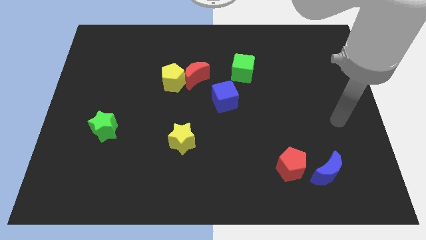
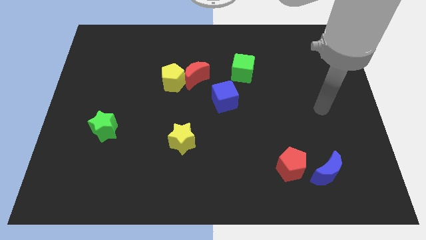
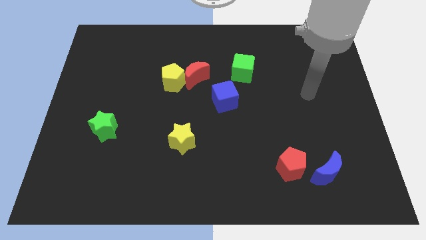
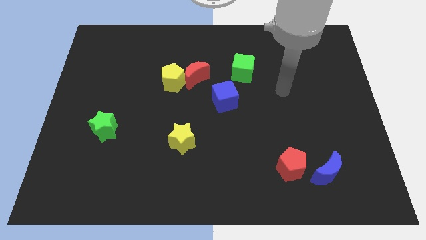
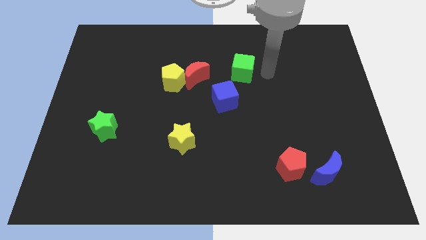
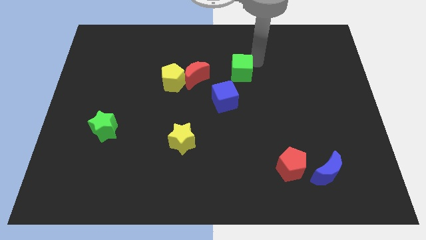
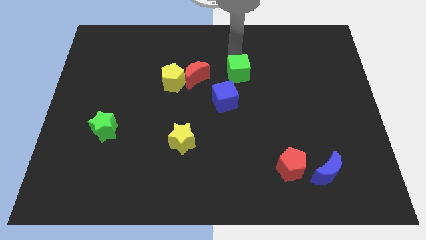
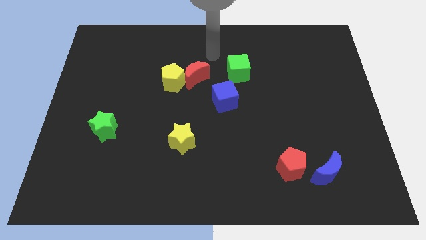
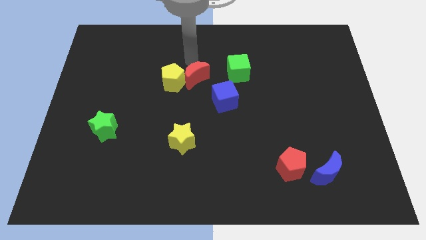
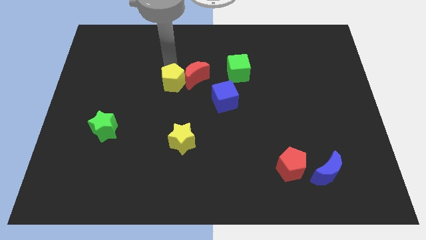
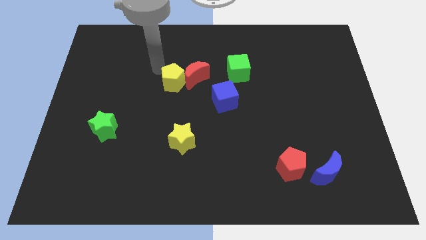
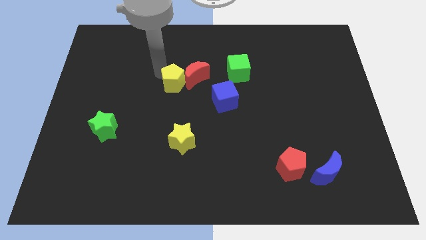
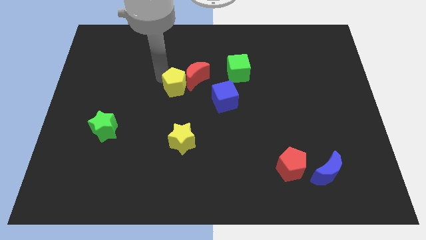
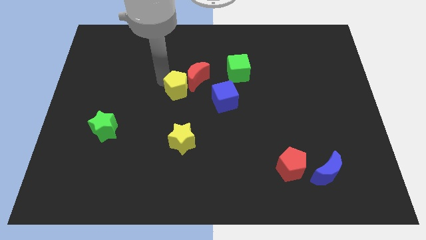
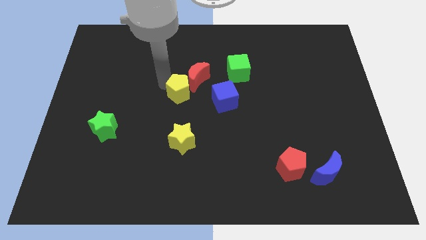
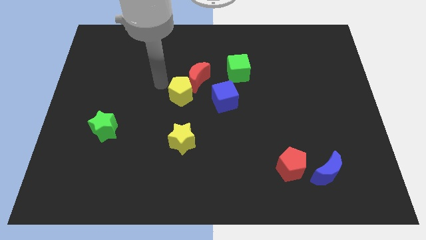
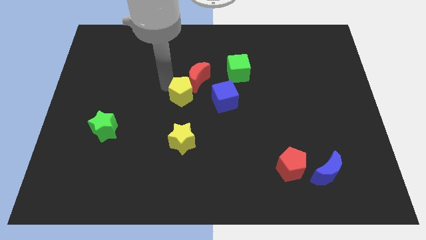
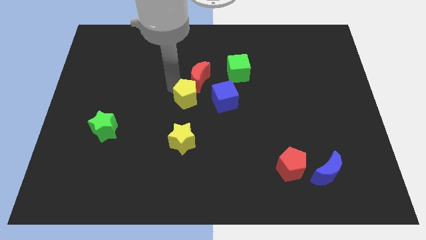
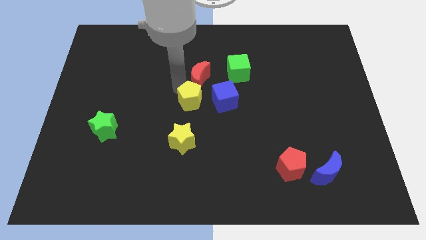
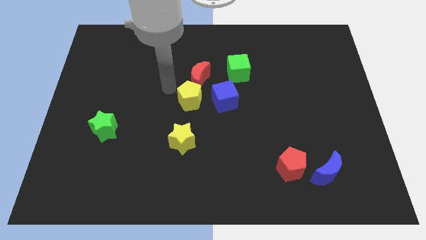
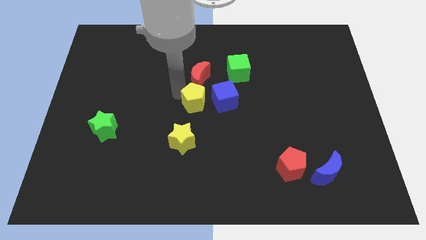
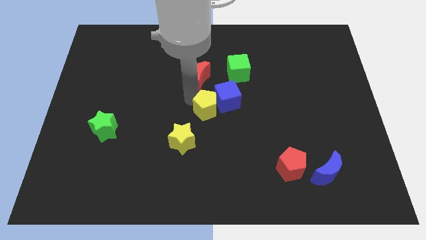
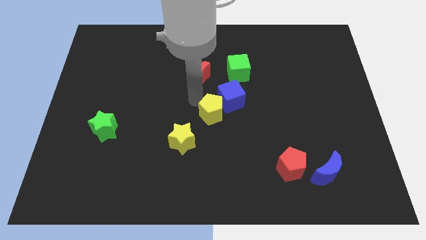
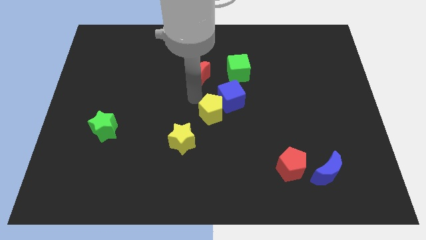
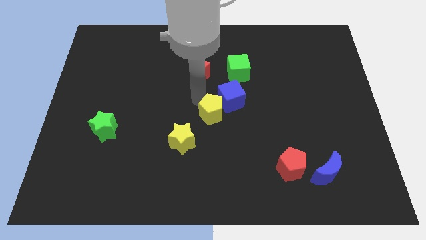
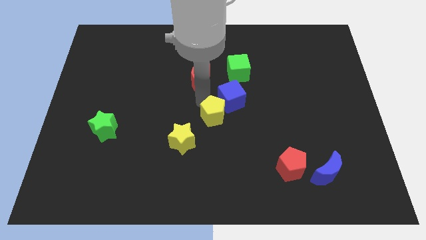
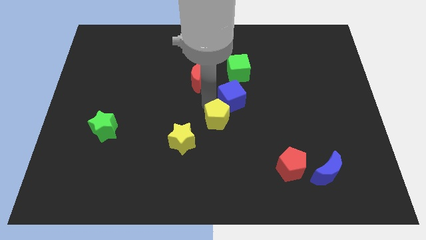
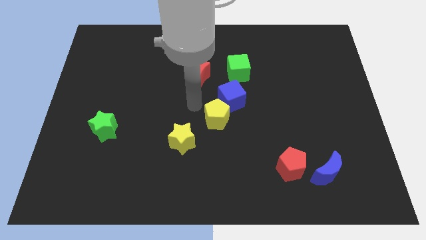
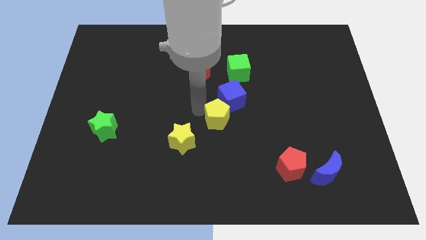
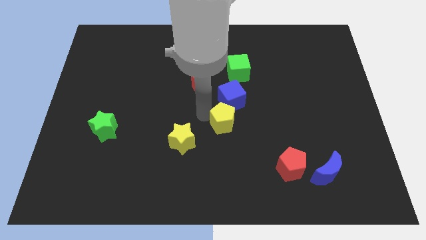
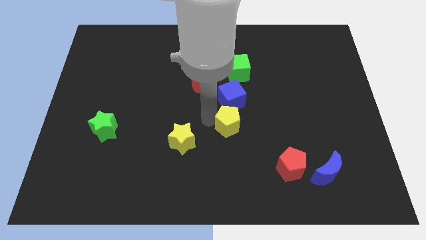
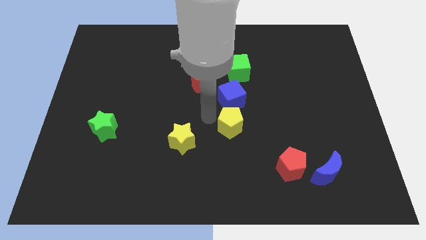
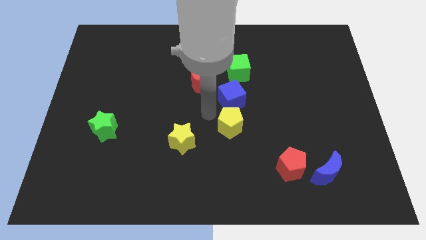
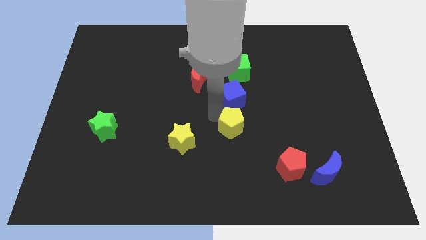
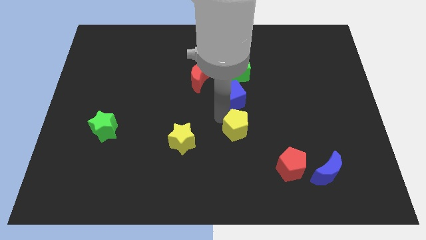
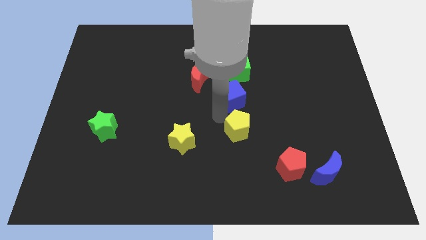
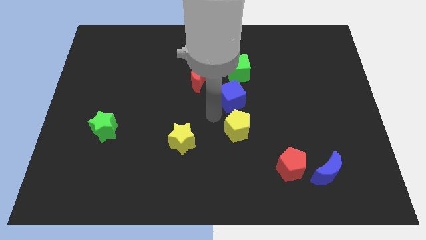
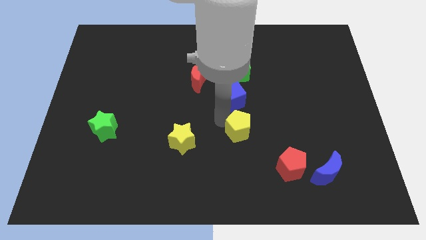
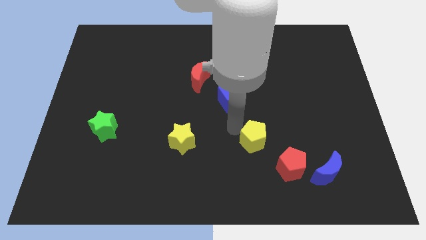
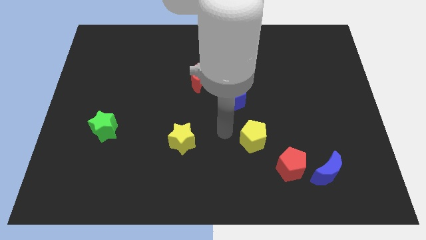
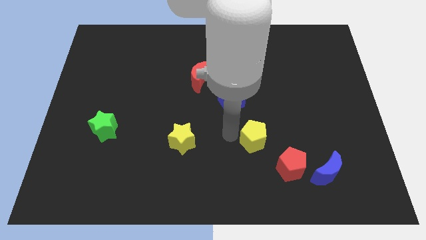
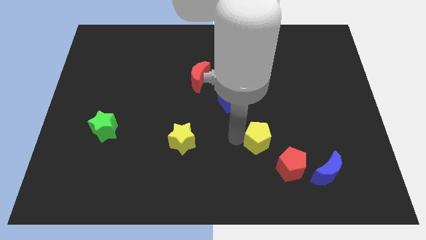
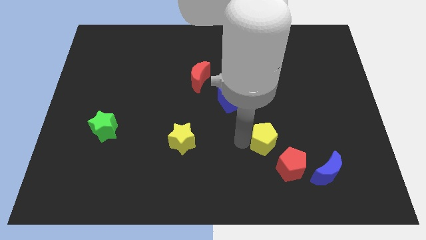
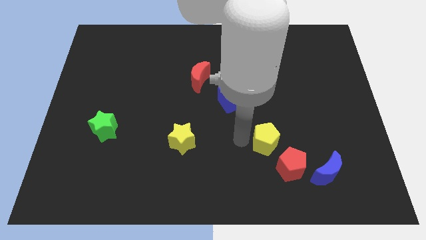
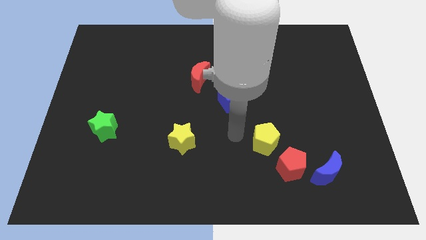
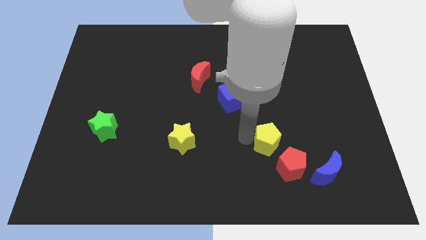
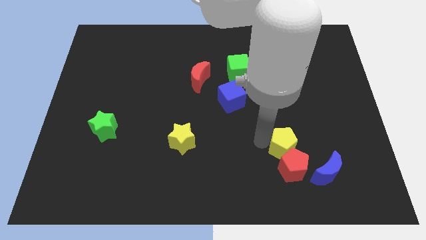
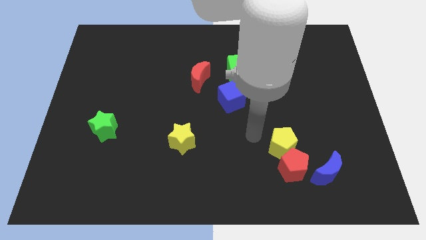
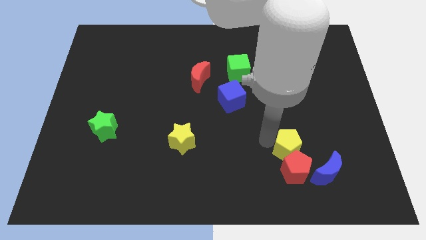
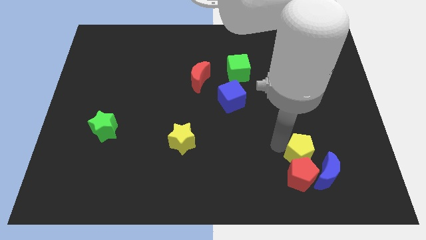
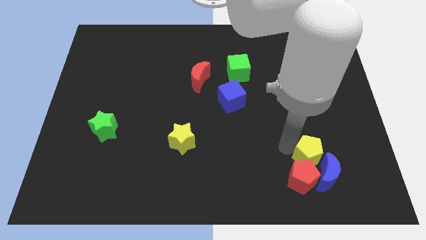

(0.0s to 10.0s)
slide the yellow pentagon next to the blue moon

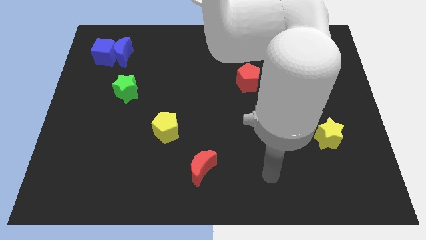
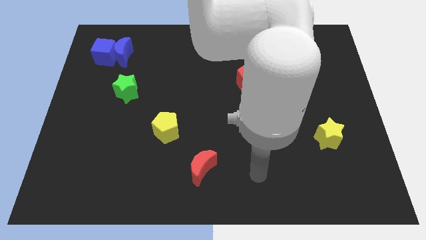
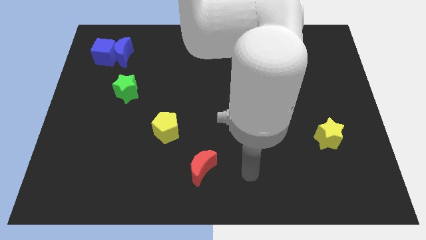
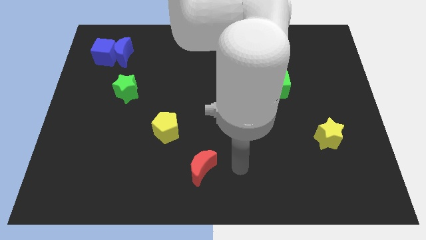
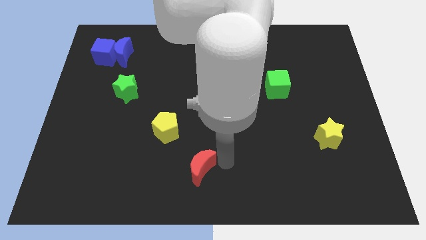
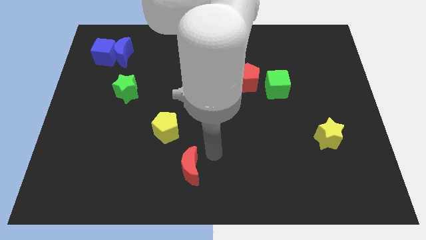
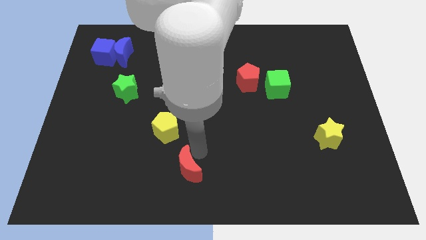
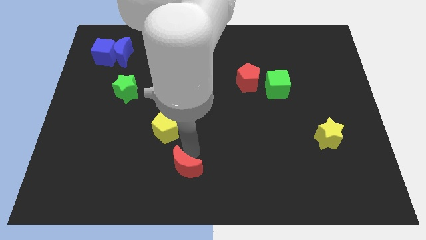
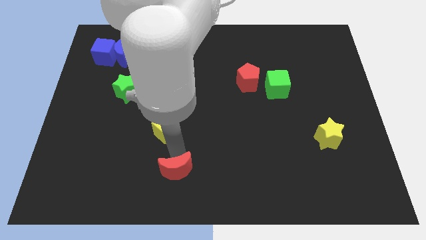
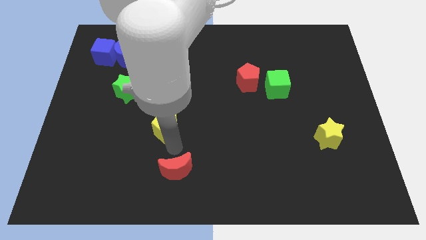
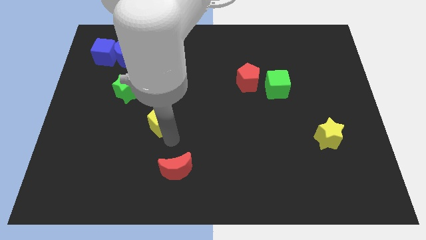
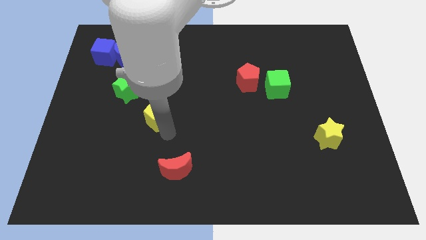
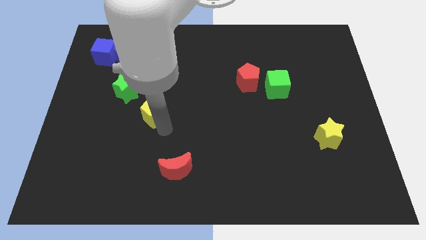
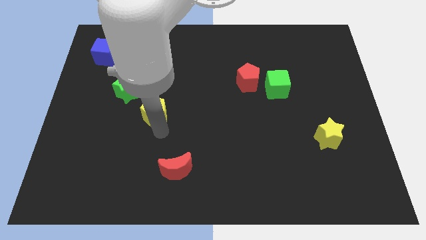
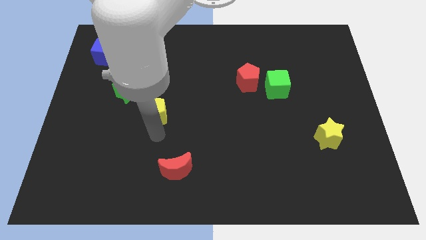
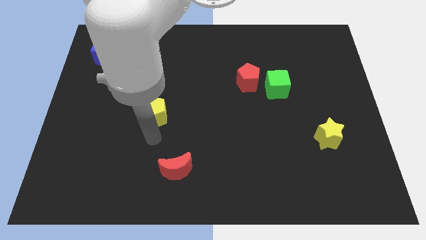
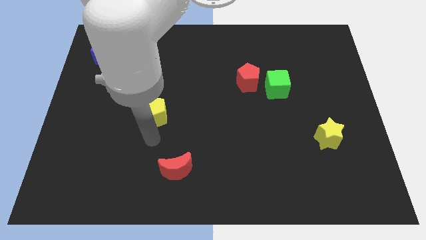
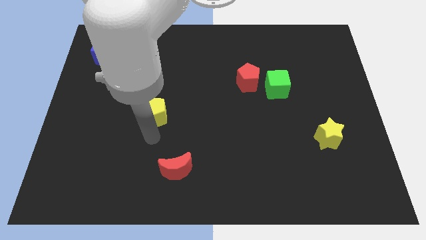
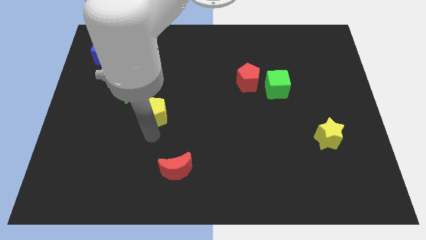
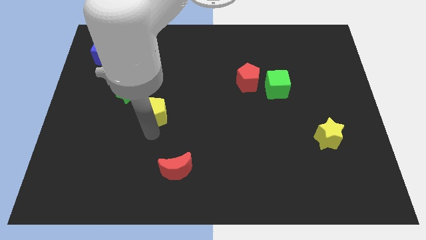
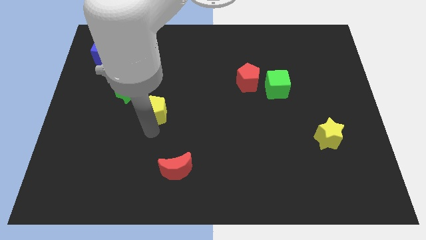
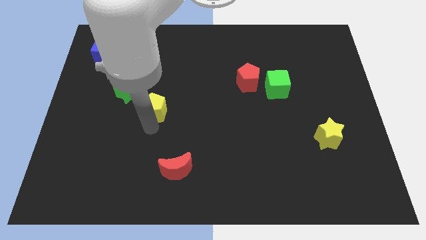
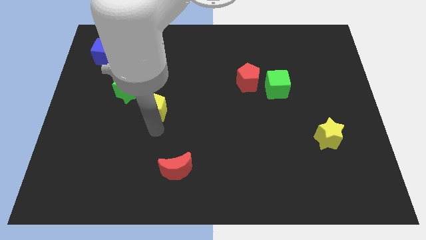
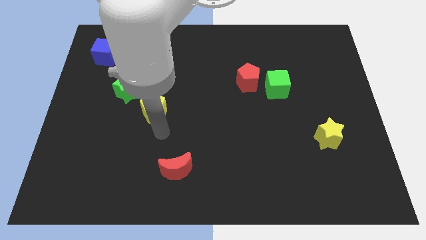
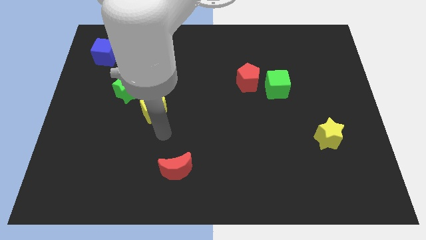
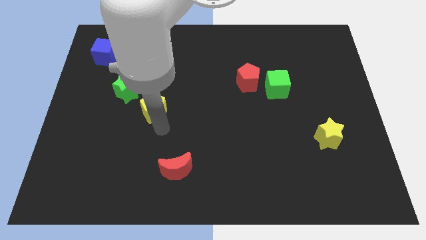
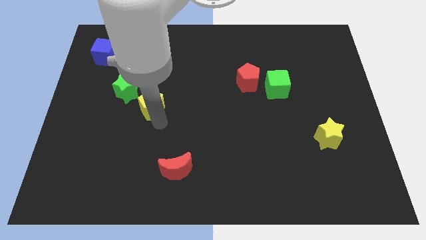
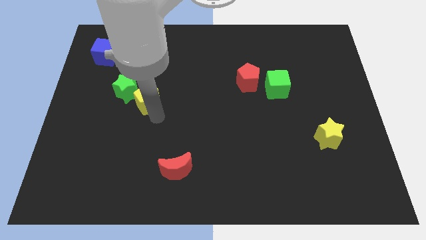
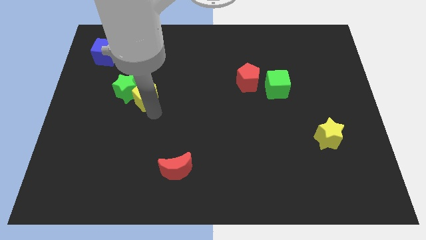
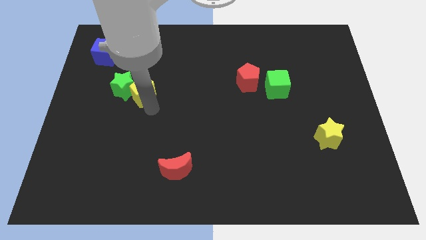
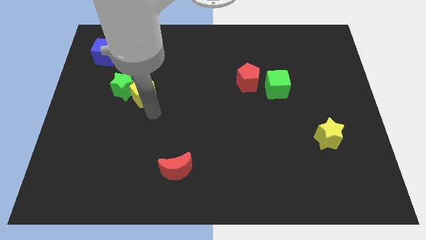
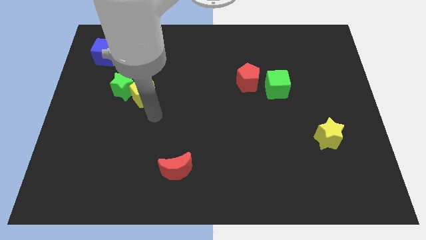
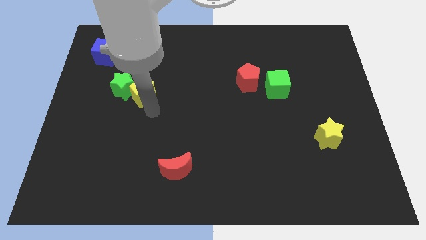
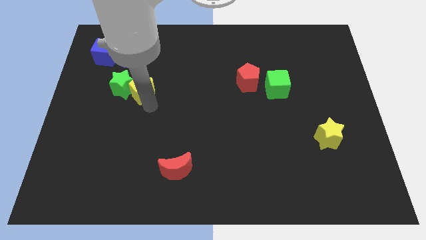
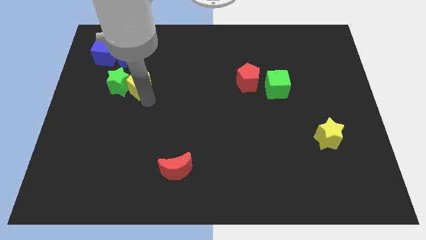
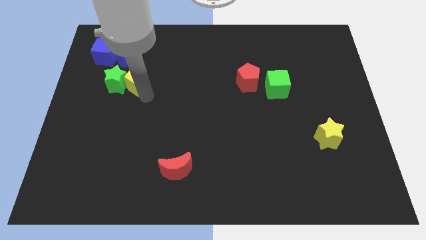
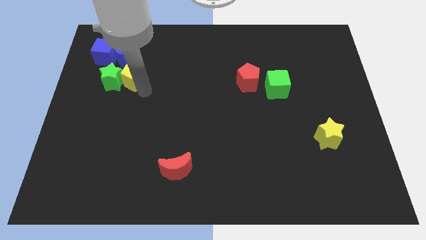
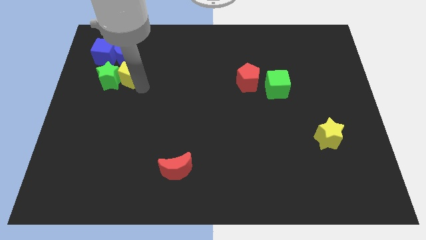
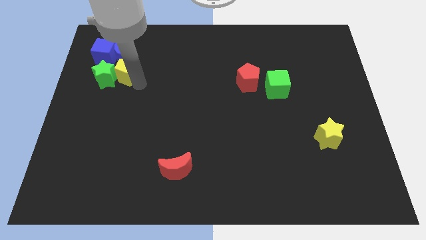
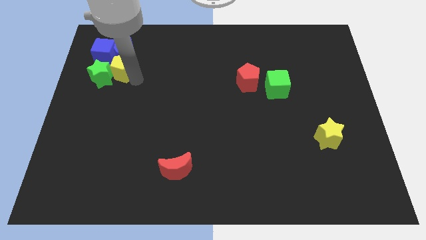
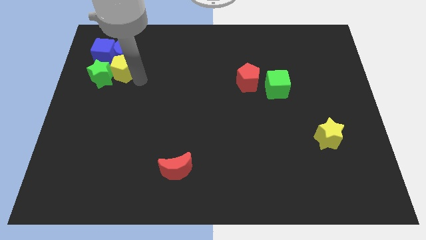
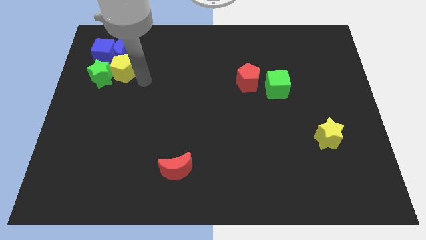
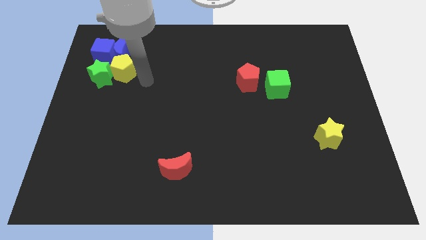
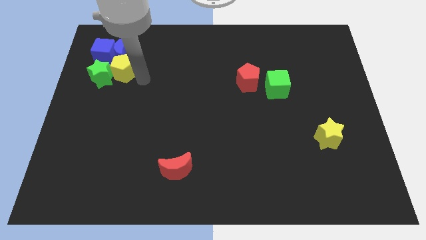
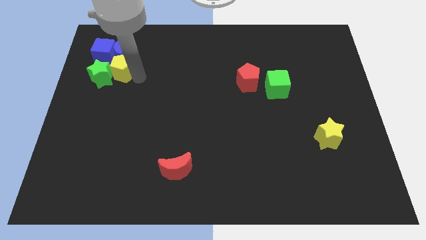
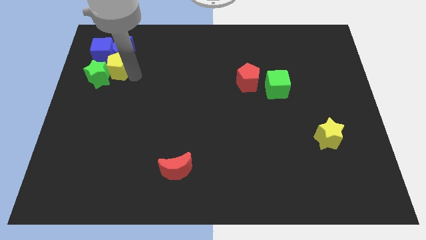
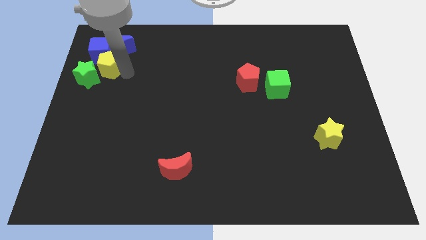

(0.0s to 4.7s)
slide the yellow pentagon to the blue cube
